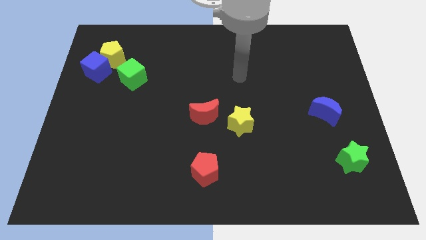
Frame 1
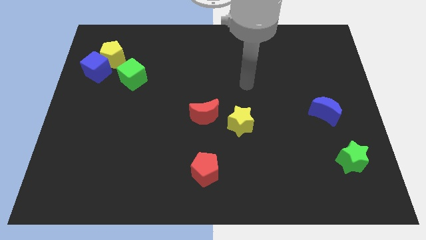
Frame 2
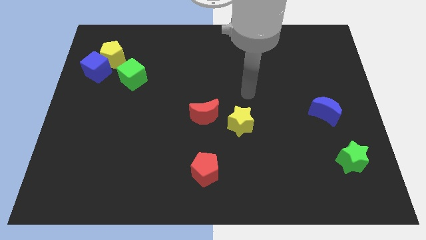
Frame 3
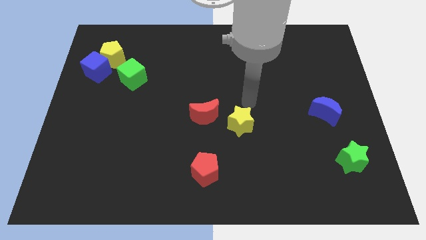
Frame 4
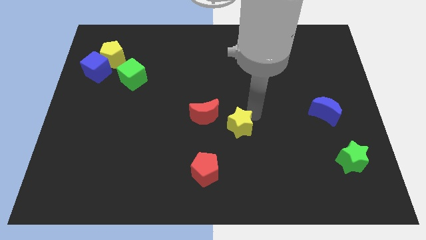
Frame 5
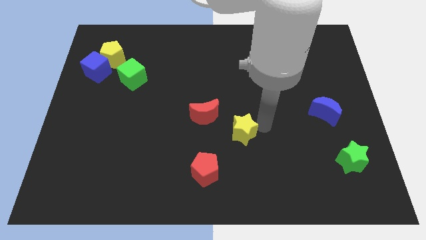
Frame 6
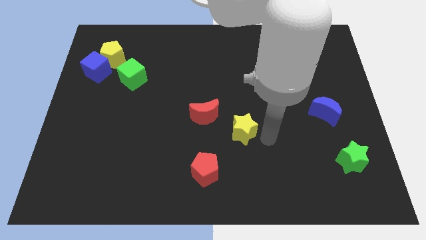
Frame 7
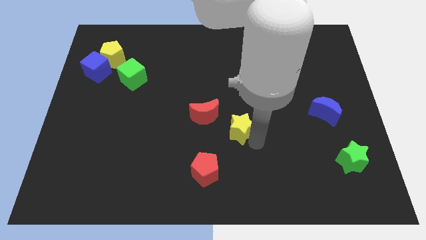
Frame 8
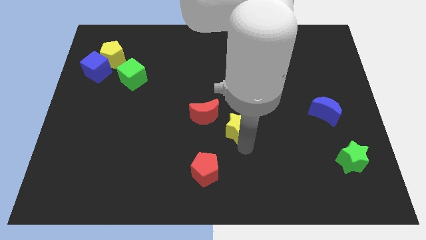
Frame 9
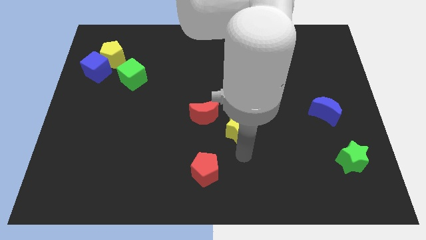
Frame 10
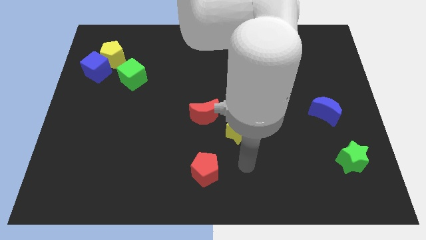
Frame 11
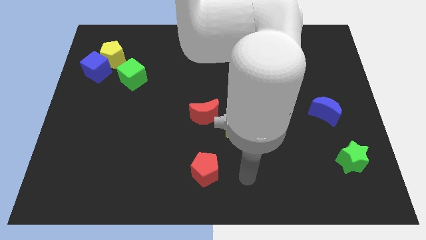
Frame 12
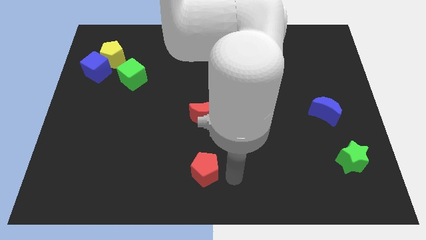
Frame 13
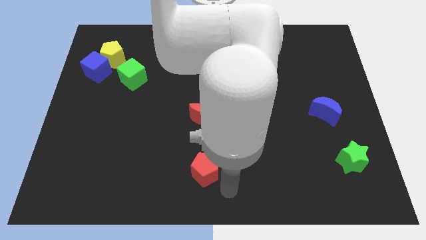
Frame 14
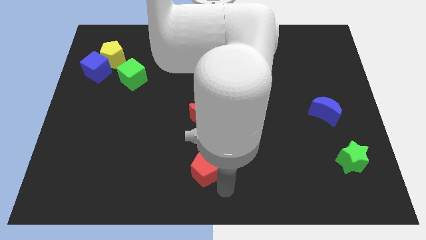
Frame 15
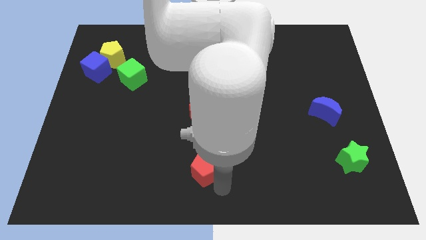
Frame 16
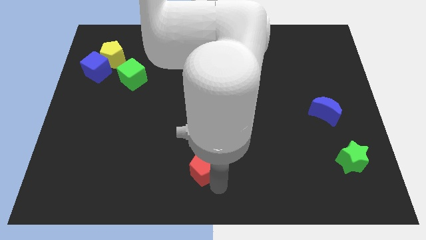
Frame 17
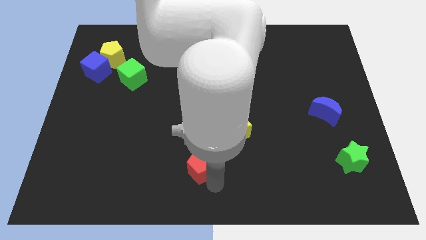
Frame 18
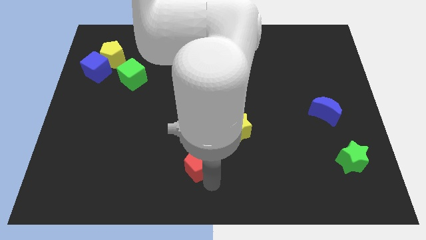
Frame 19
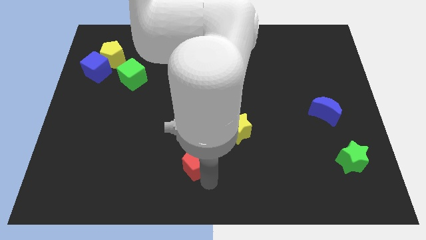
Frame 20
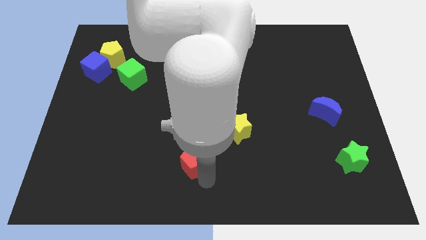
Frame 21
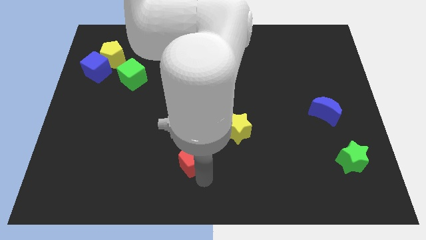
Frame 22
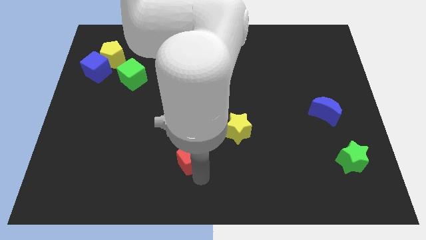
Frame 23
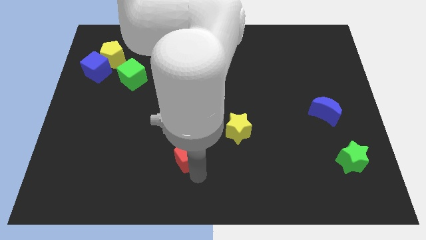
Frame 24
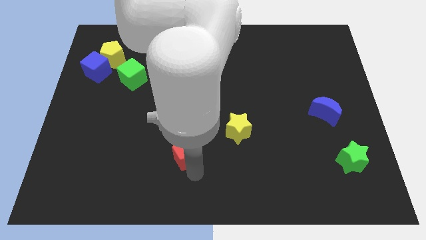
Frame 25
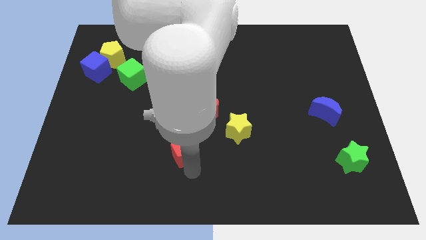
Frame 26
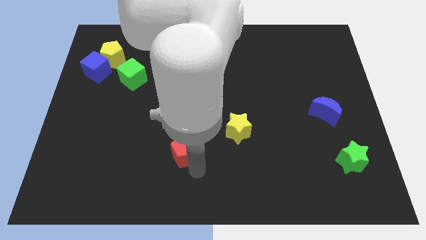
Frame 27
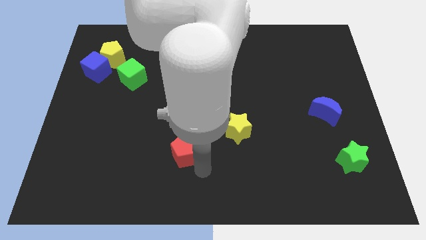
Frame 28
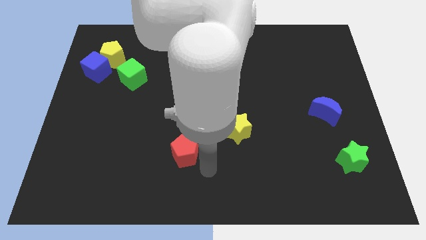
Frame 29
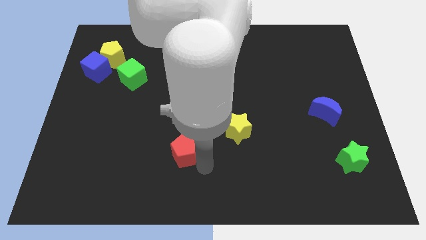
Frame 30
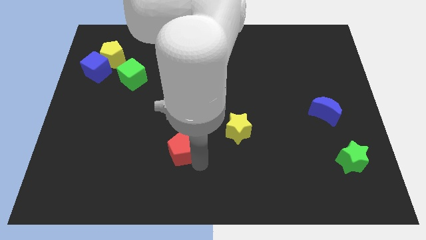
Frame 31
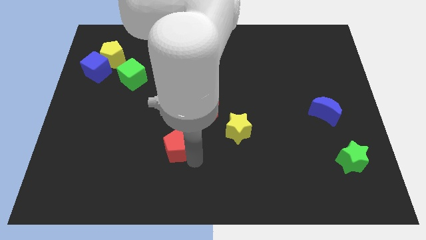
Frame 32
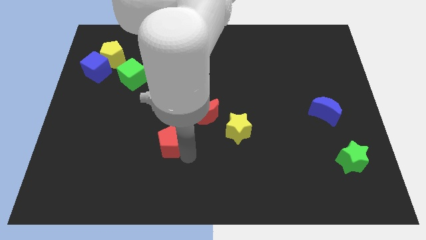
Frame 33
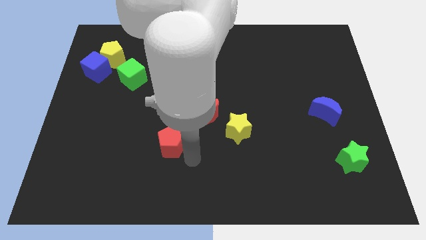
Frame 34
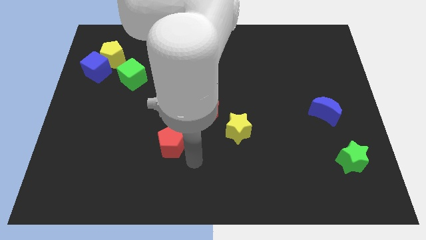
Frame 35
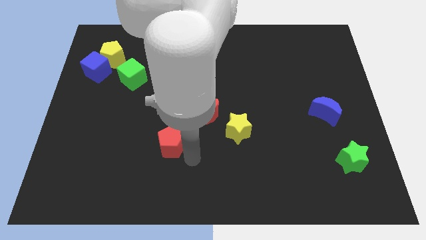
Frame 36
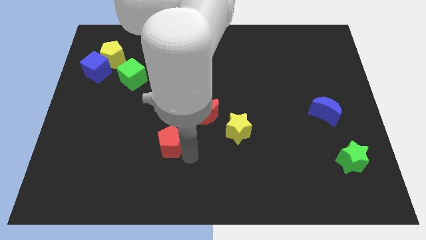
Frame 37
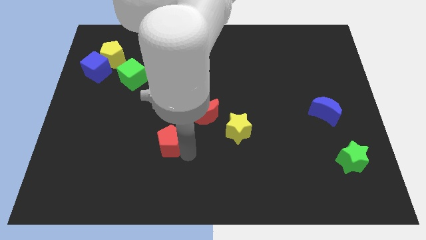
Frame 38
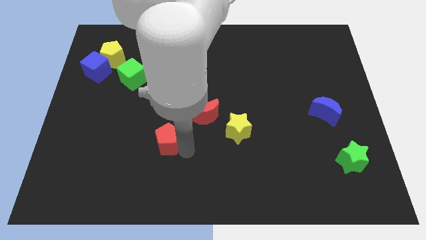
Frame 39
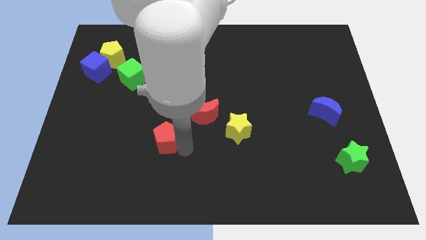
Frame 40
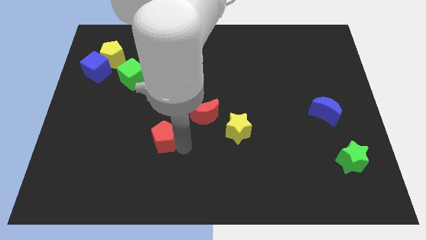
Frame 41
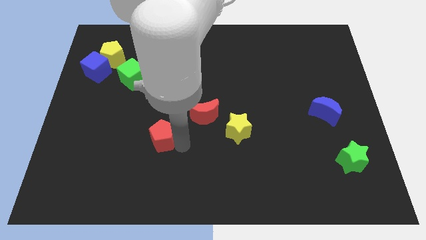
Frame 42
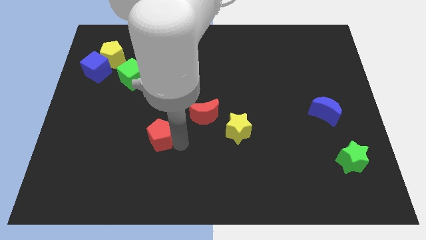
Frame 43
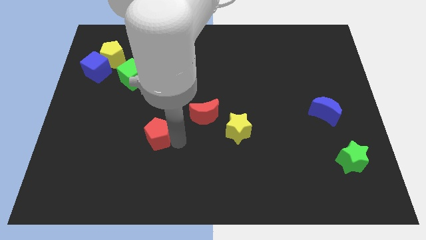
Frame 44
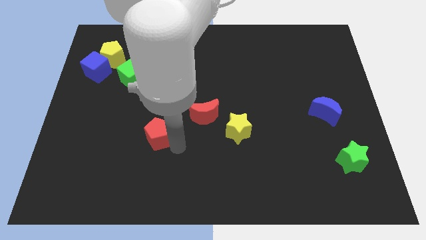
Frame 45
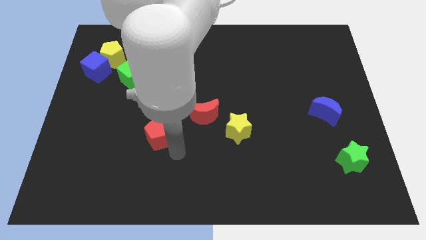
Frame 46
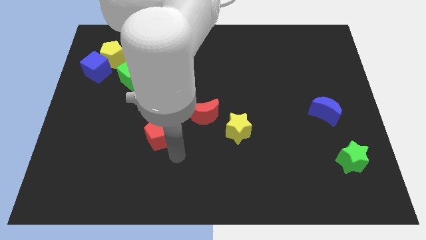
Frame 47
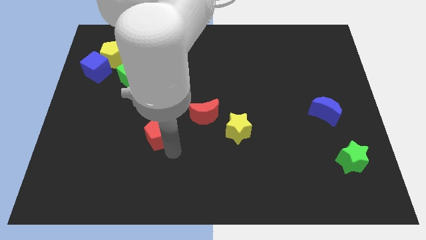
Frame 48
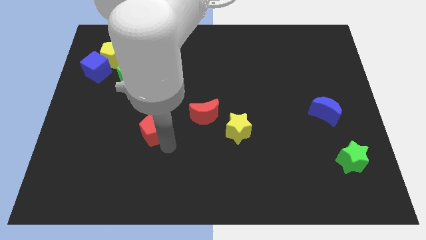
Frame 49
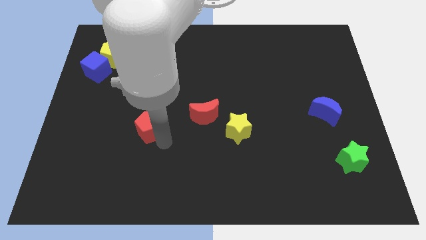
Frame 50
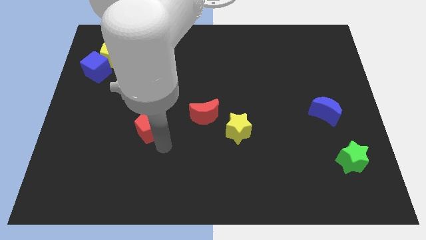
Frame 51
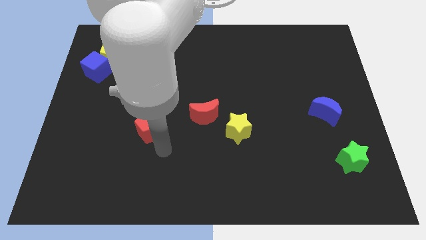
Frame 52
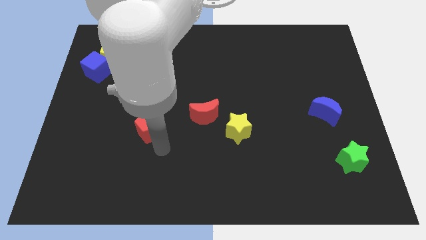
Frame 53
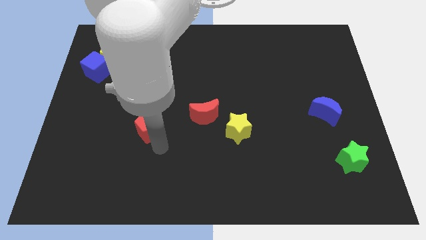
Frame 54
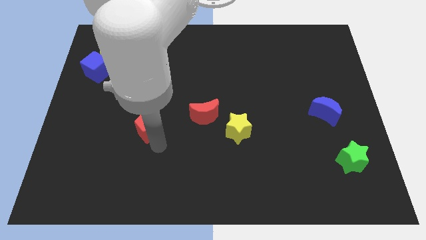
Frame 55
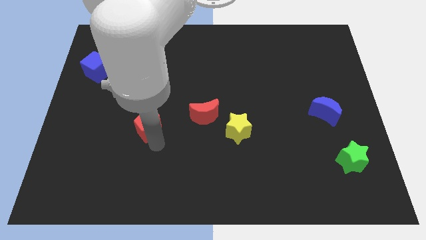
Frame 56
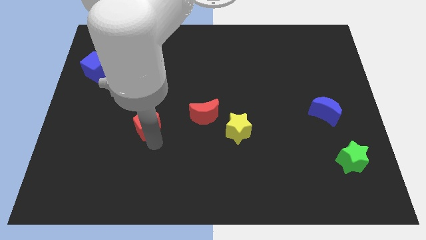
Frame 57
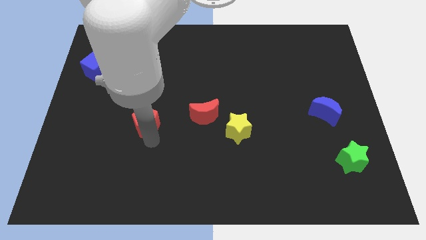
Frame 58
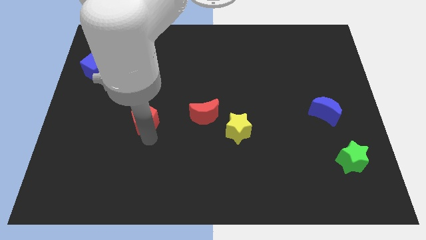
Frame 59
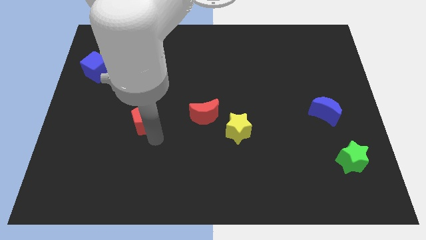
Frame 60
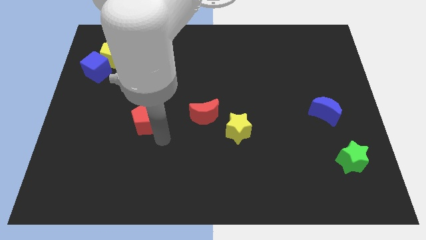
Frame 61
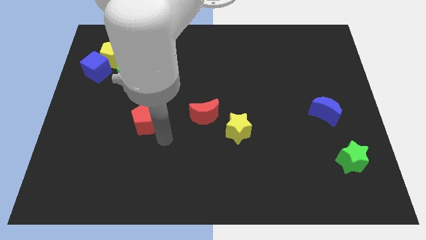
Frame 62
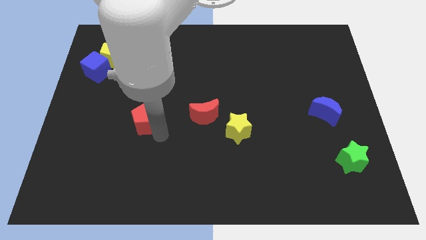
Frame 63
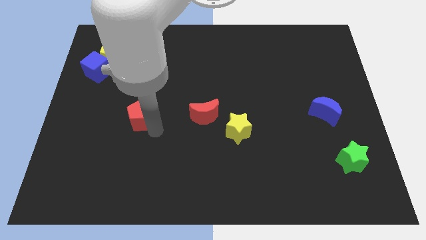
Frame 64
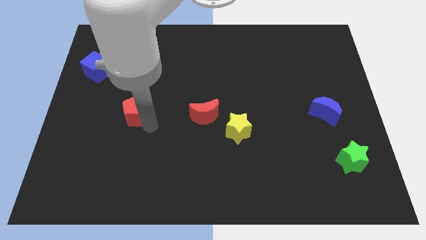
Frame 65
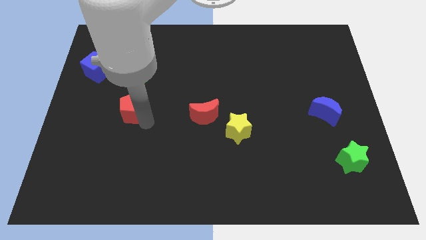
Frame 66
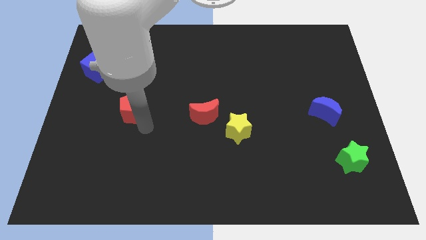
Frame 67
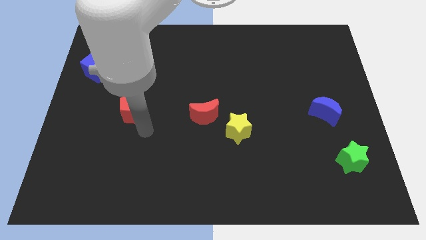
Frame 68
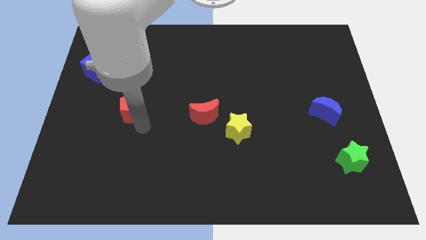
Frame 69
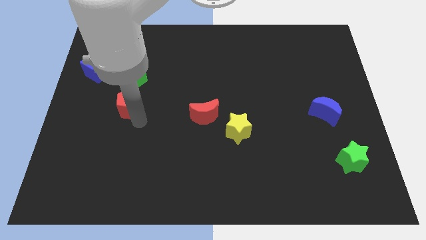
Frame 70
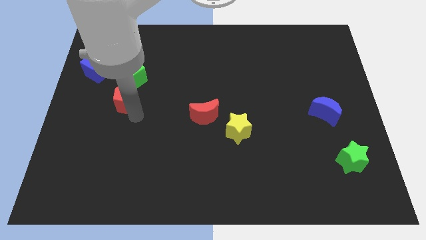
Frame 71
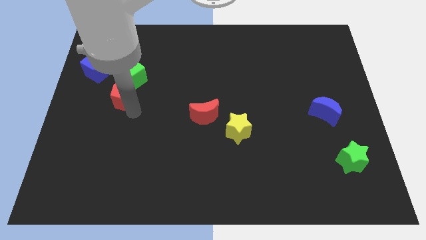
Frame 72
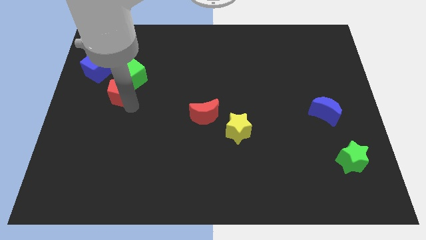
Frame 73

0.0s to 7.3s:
put the red pentagon to the bottom side of the yellow pentagon
